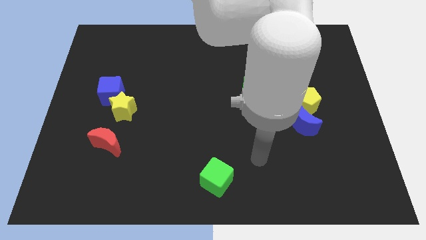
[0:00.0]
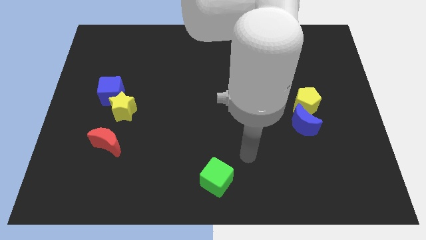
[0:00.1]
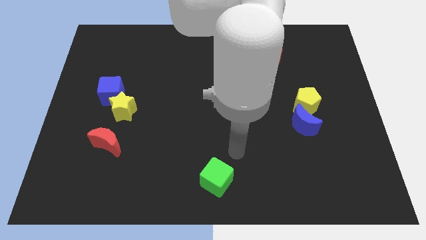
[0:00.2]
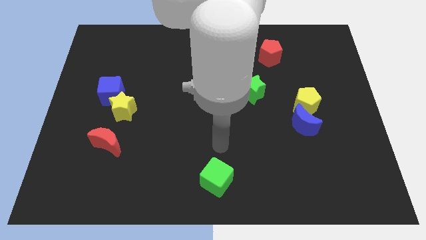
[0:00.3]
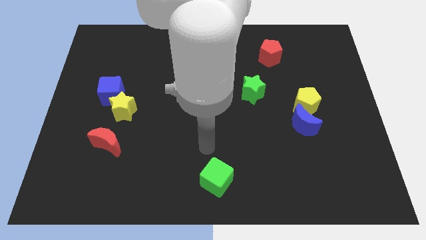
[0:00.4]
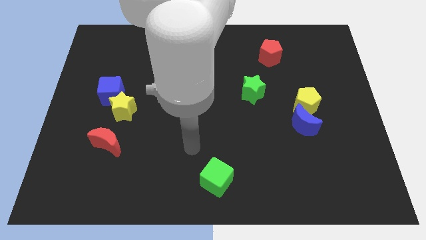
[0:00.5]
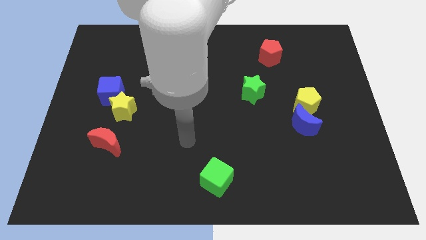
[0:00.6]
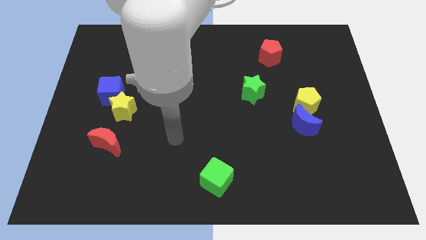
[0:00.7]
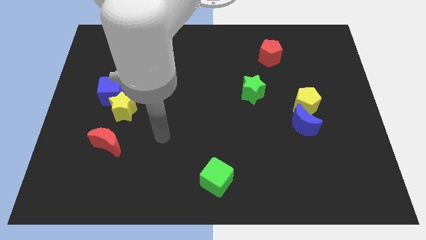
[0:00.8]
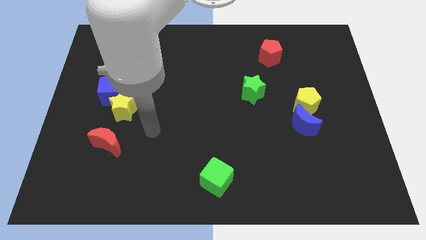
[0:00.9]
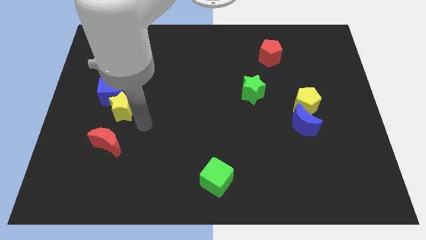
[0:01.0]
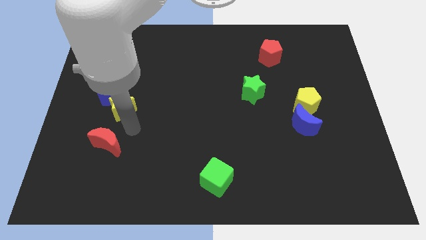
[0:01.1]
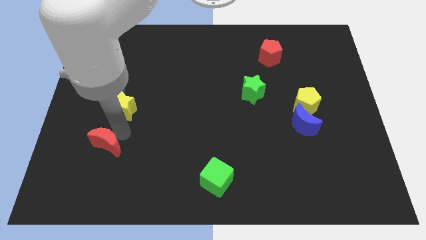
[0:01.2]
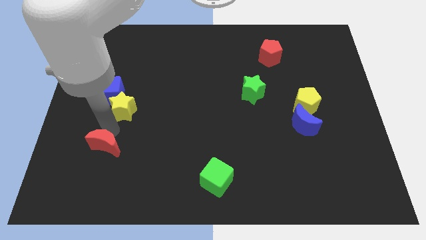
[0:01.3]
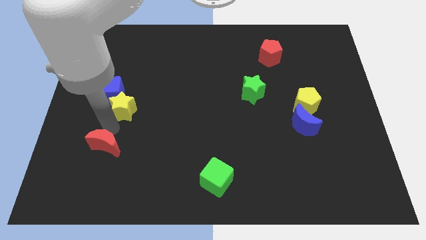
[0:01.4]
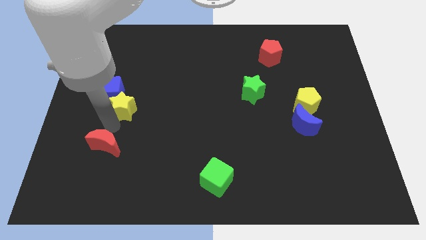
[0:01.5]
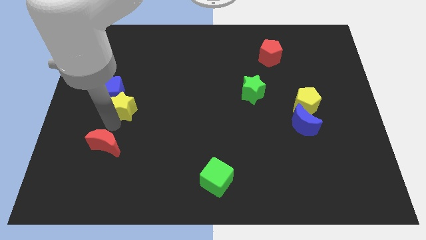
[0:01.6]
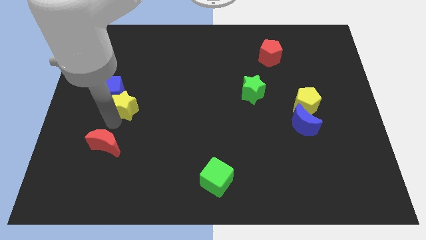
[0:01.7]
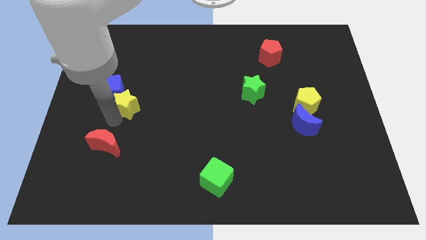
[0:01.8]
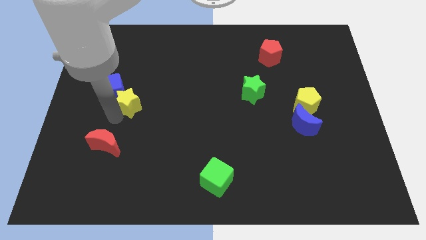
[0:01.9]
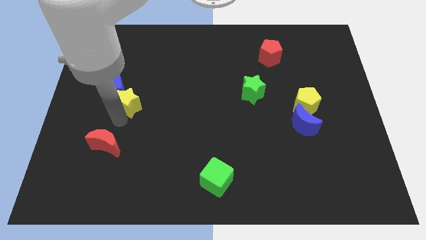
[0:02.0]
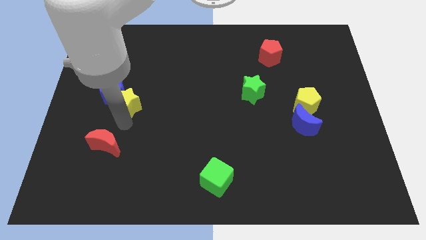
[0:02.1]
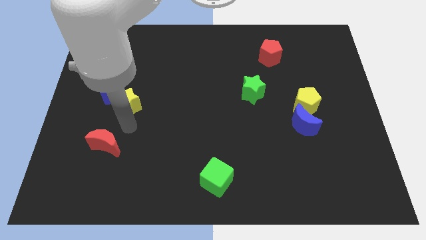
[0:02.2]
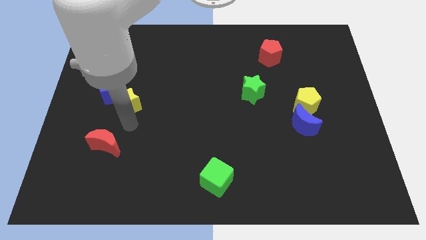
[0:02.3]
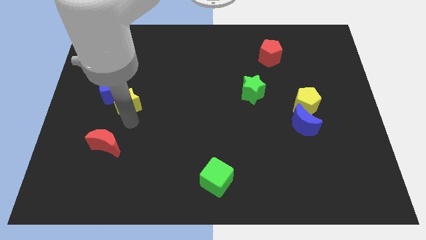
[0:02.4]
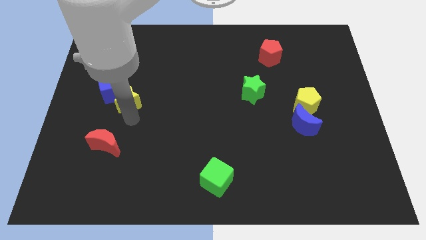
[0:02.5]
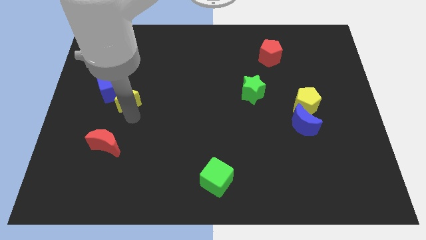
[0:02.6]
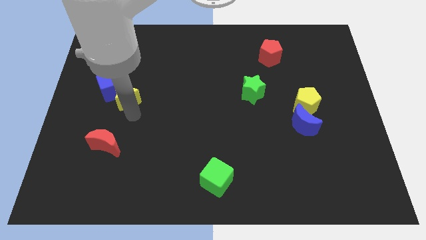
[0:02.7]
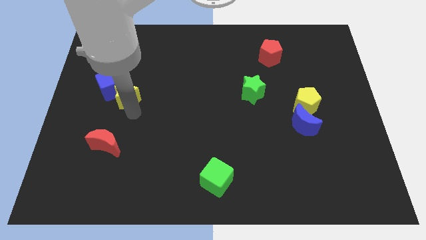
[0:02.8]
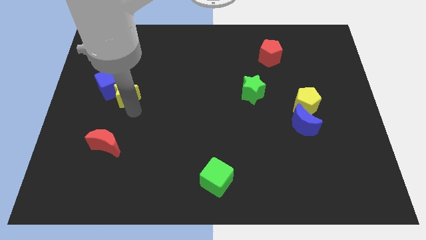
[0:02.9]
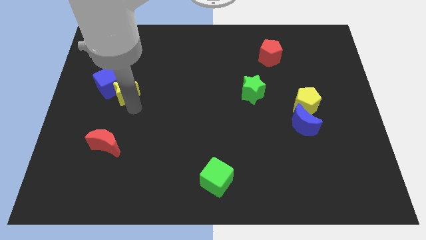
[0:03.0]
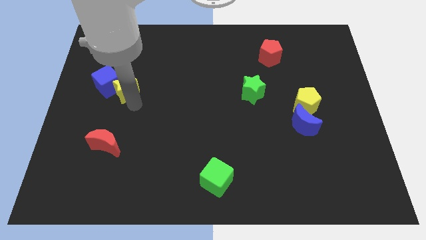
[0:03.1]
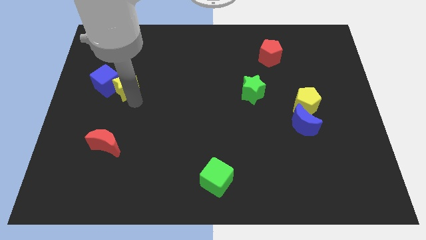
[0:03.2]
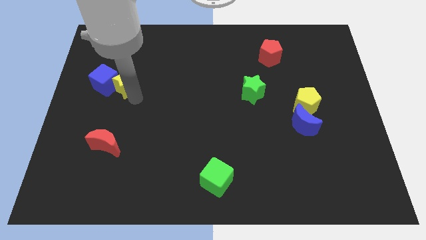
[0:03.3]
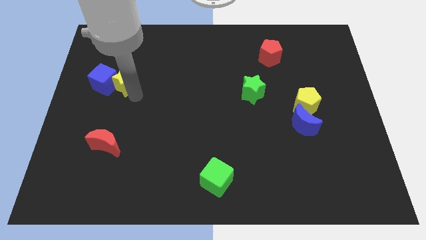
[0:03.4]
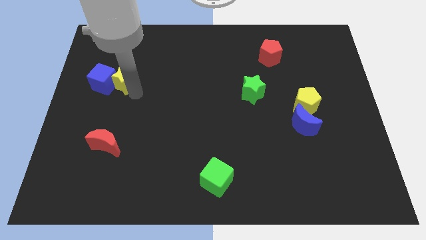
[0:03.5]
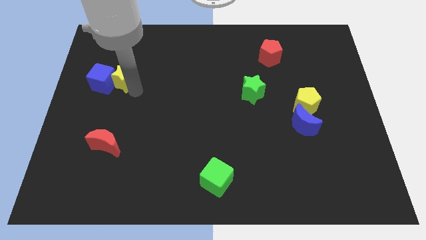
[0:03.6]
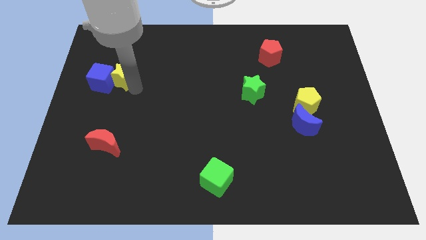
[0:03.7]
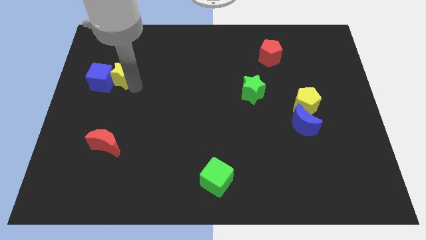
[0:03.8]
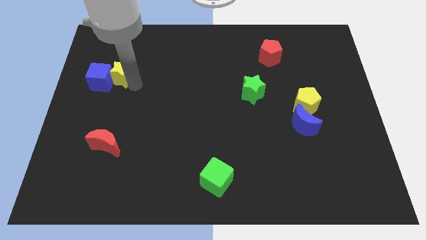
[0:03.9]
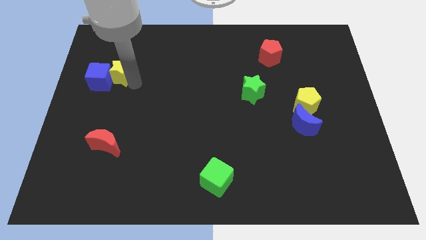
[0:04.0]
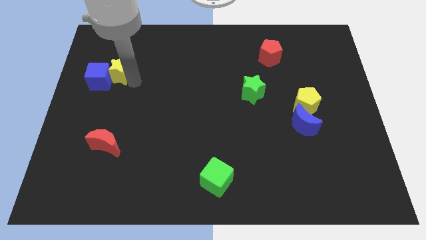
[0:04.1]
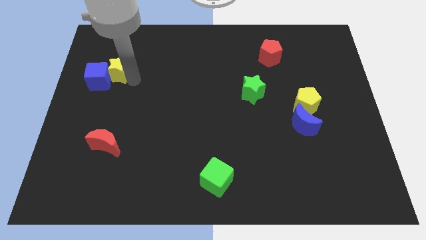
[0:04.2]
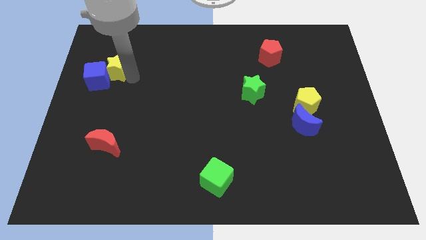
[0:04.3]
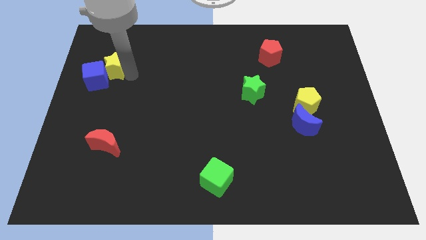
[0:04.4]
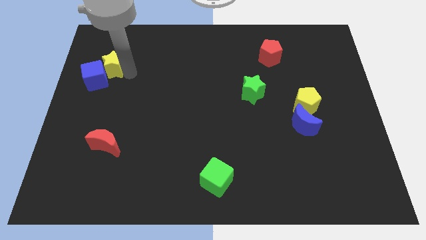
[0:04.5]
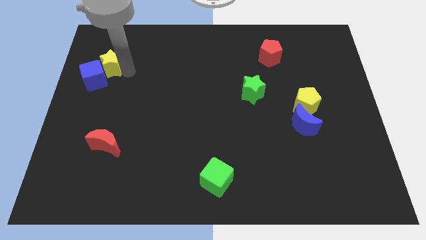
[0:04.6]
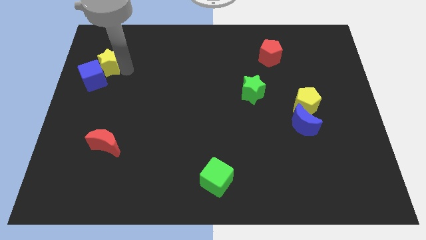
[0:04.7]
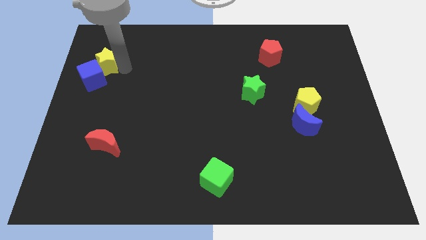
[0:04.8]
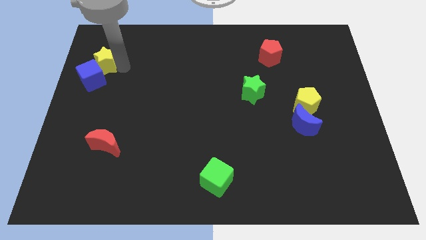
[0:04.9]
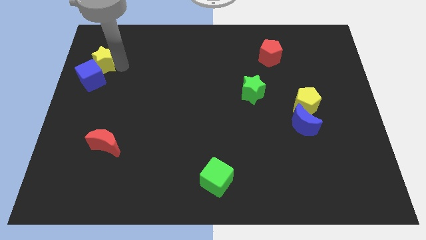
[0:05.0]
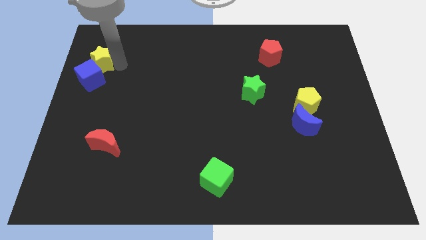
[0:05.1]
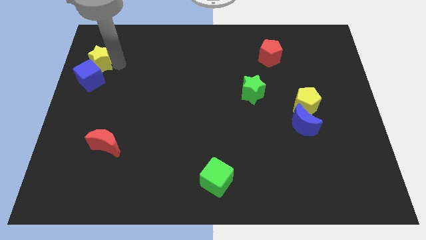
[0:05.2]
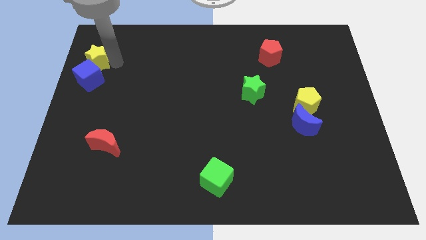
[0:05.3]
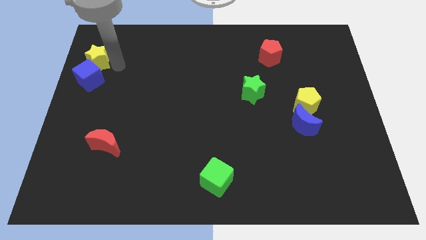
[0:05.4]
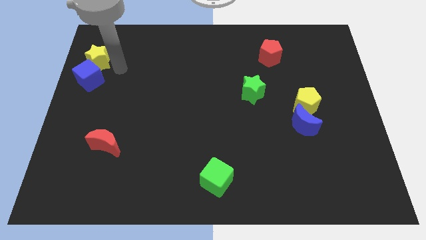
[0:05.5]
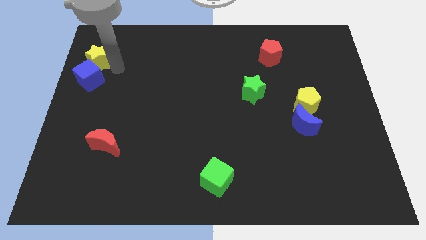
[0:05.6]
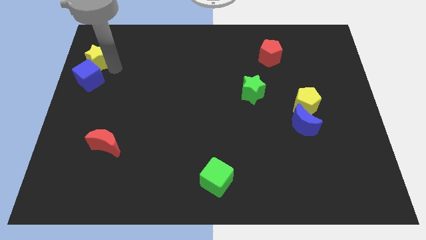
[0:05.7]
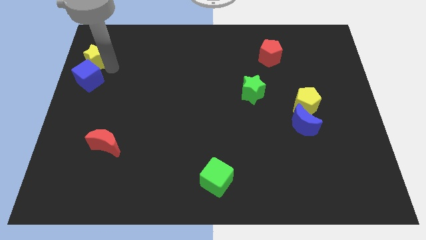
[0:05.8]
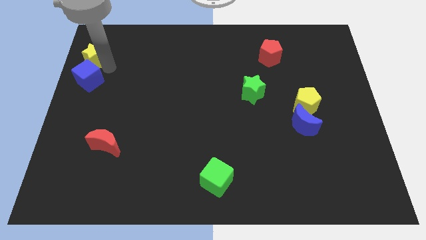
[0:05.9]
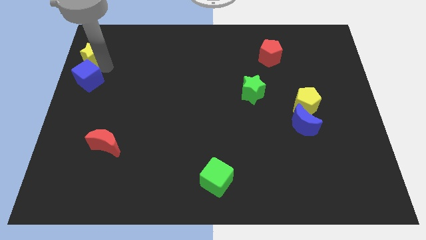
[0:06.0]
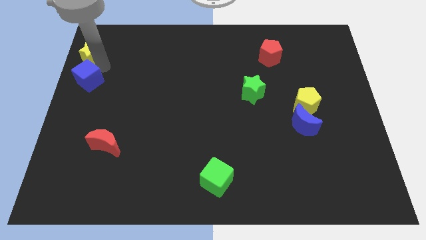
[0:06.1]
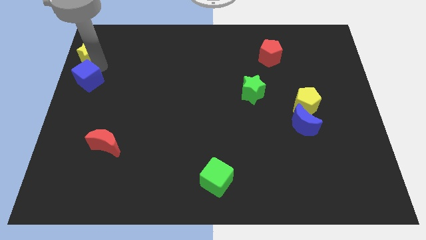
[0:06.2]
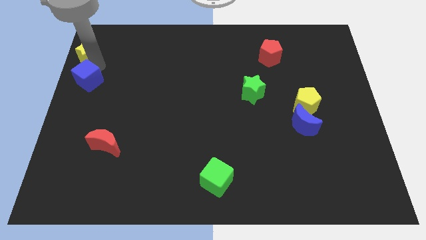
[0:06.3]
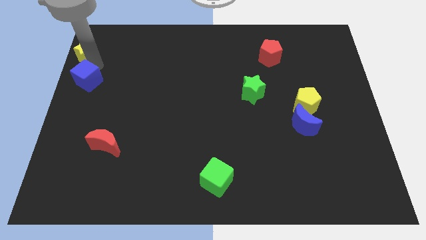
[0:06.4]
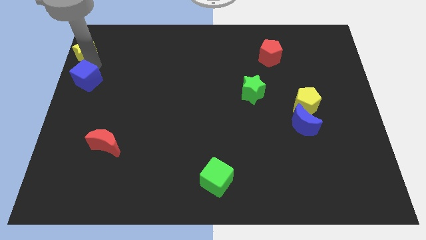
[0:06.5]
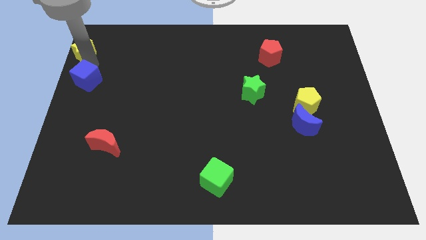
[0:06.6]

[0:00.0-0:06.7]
slide the yellow star to the top left of the board
